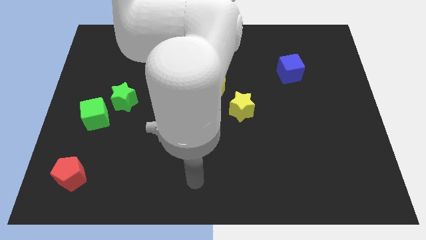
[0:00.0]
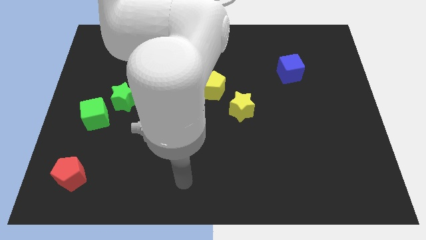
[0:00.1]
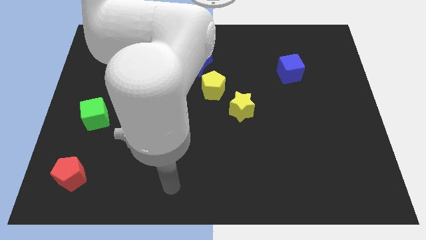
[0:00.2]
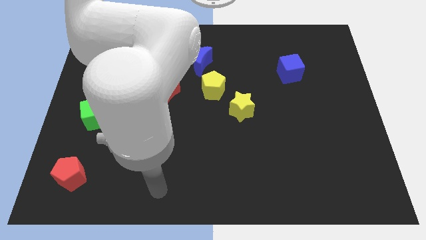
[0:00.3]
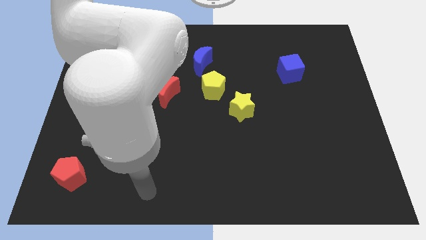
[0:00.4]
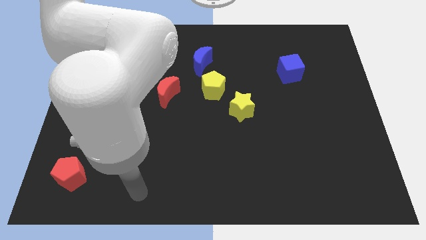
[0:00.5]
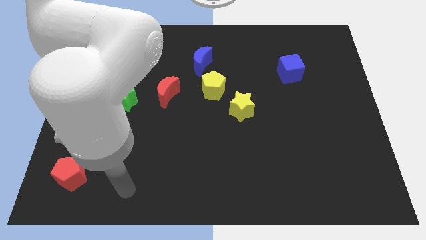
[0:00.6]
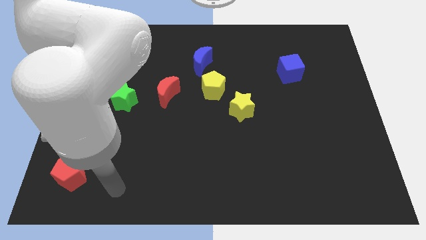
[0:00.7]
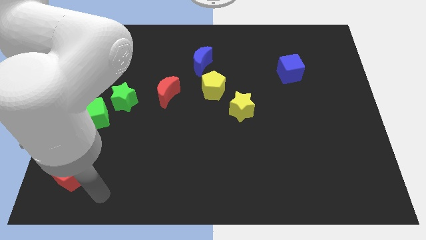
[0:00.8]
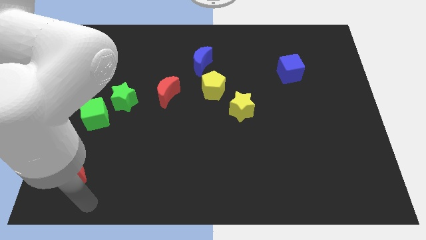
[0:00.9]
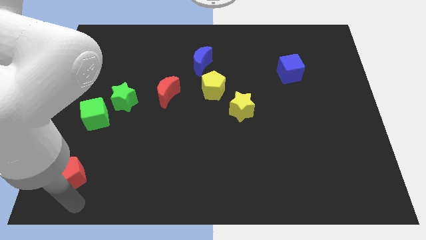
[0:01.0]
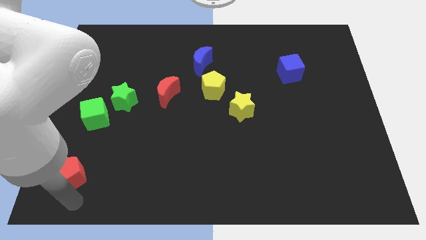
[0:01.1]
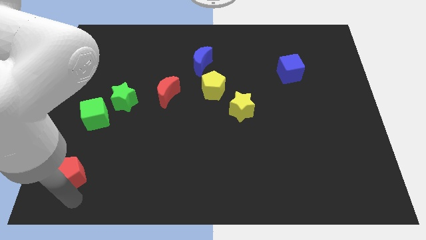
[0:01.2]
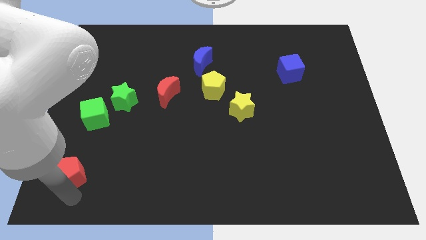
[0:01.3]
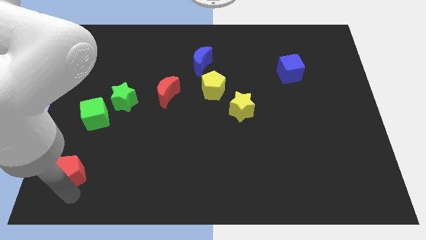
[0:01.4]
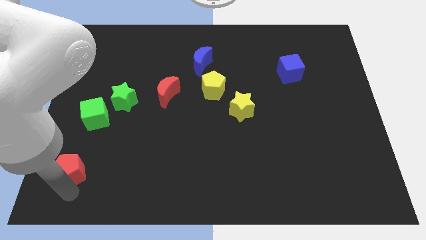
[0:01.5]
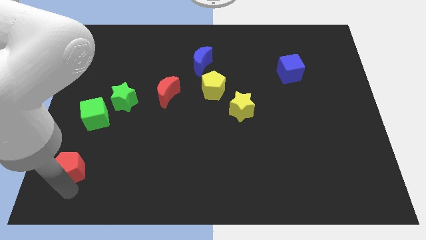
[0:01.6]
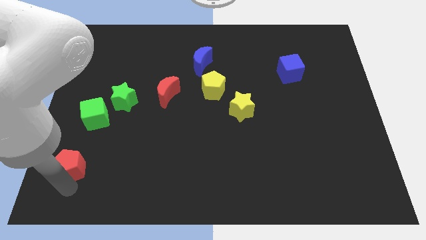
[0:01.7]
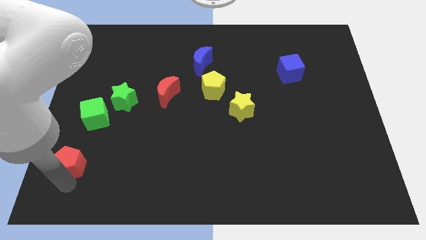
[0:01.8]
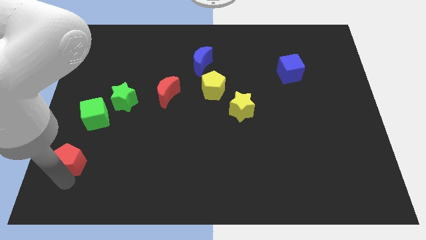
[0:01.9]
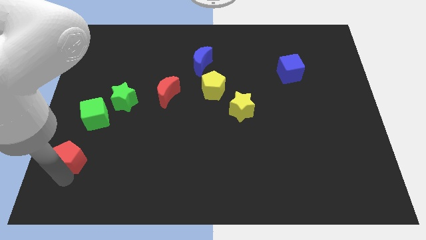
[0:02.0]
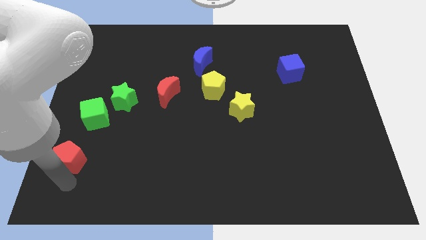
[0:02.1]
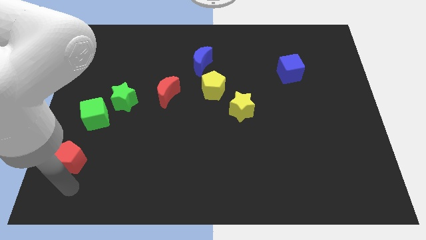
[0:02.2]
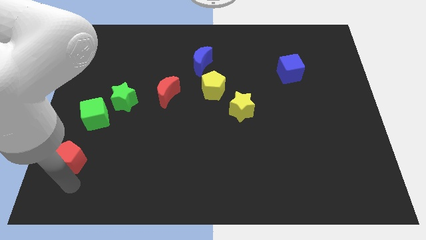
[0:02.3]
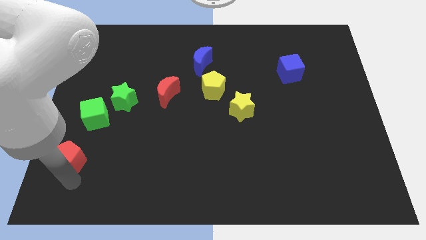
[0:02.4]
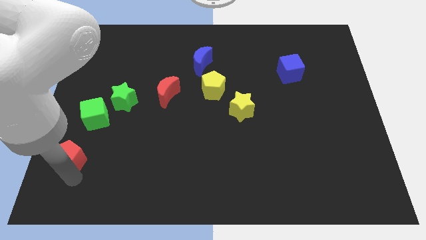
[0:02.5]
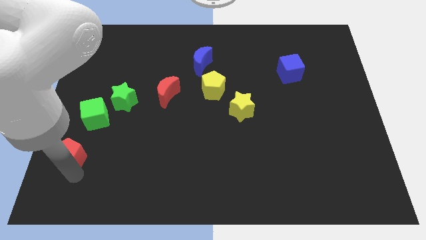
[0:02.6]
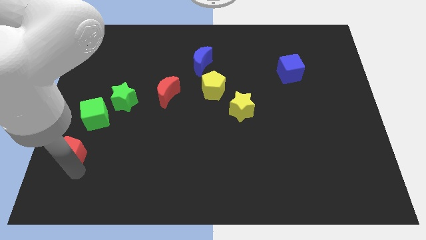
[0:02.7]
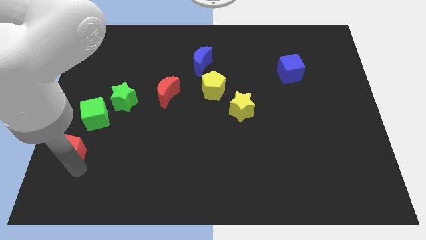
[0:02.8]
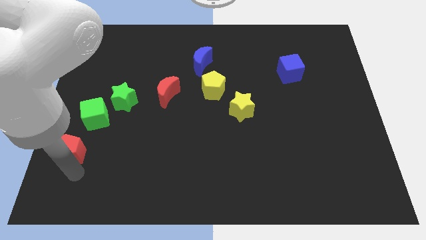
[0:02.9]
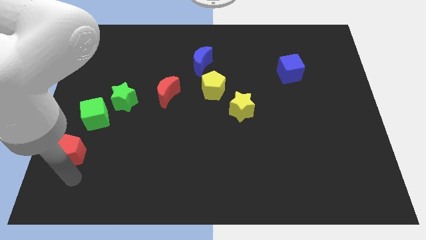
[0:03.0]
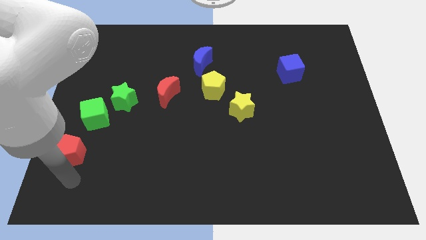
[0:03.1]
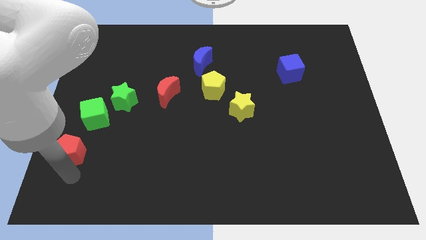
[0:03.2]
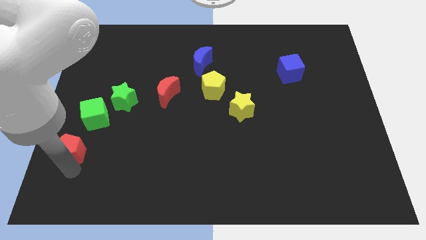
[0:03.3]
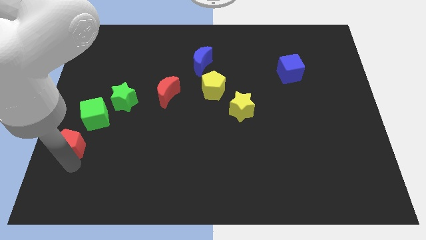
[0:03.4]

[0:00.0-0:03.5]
slightly move the red pentagon up

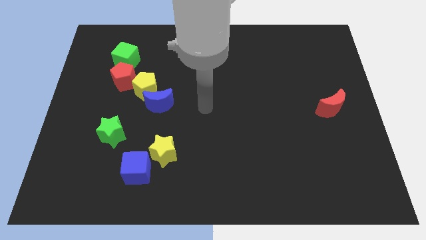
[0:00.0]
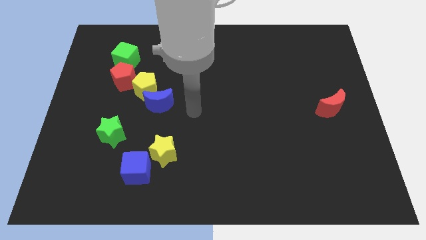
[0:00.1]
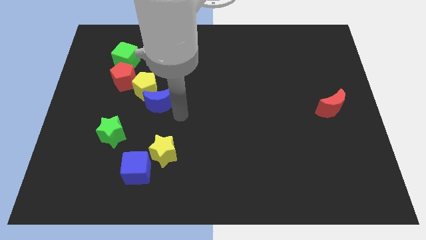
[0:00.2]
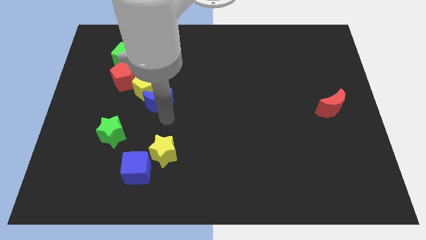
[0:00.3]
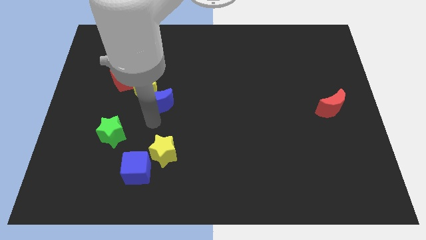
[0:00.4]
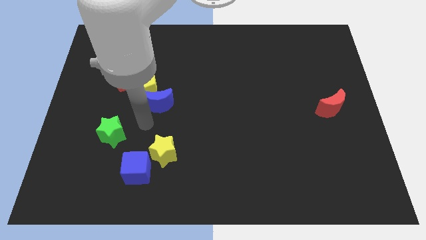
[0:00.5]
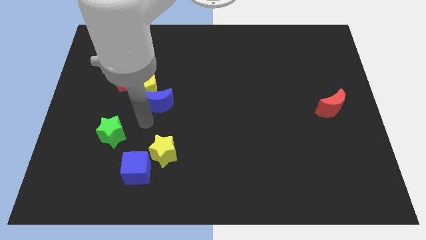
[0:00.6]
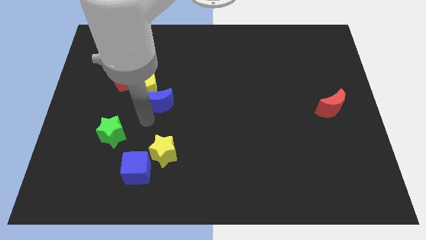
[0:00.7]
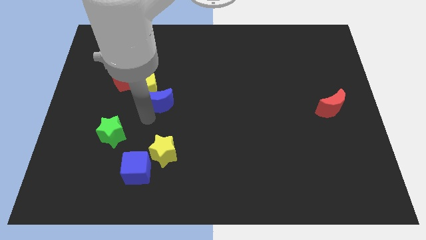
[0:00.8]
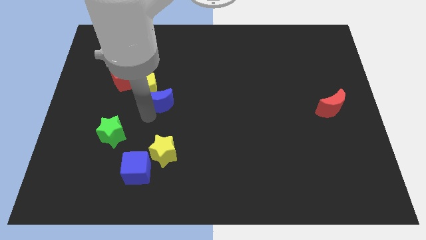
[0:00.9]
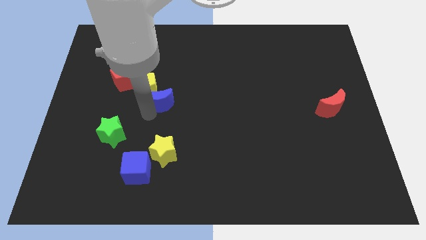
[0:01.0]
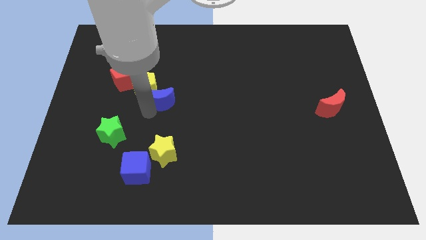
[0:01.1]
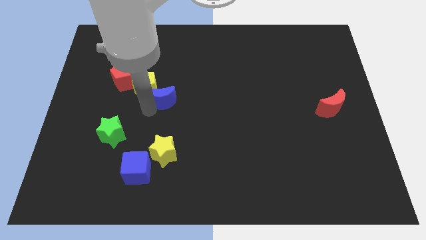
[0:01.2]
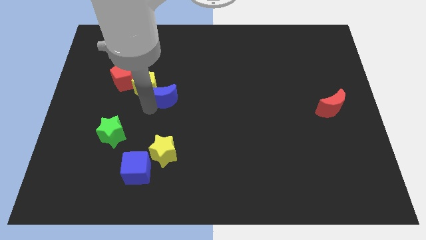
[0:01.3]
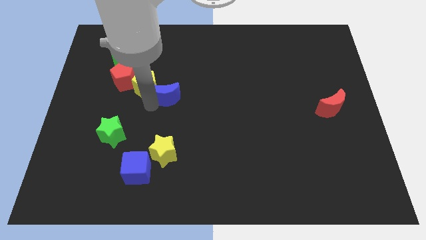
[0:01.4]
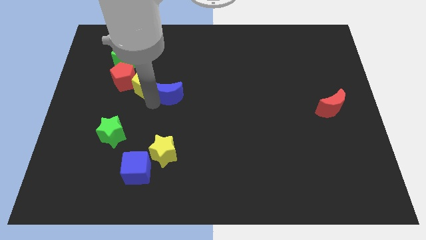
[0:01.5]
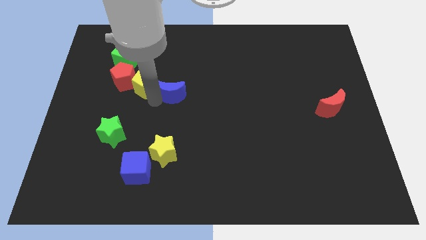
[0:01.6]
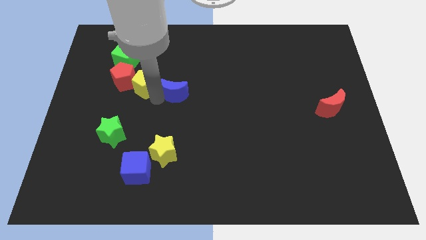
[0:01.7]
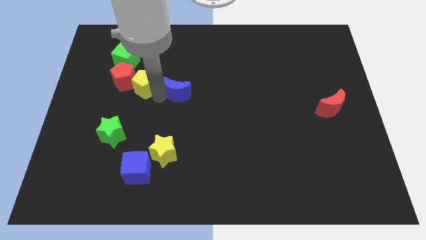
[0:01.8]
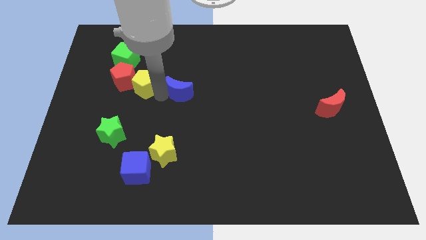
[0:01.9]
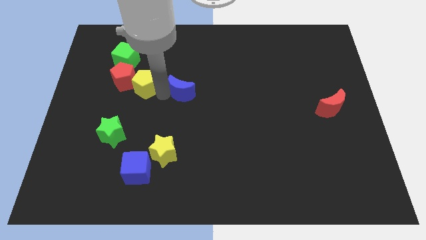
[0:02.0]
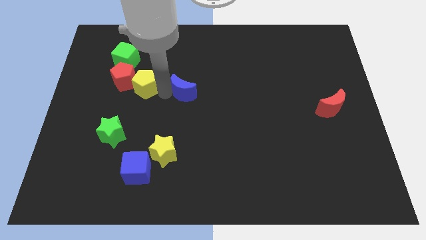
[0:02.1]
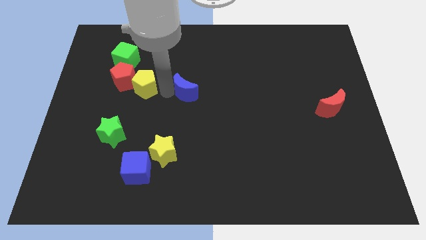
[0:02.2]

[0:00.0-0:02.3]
push the blue moon up and right a bit

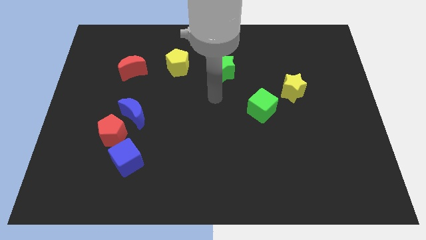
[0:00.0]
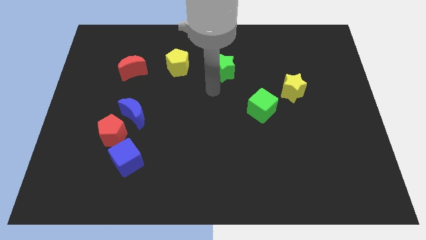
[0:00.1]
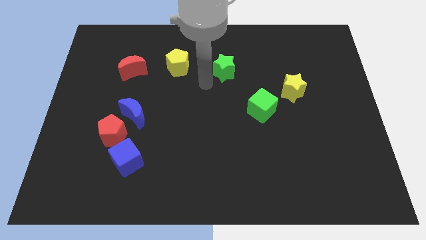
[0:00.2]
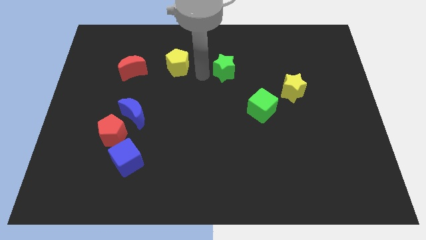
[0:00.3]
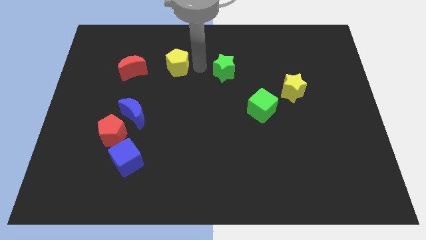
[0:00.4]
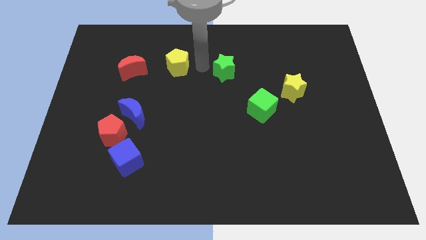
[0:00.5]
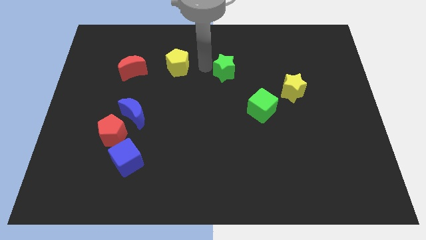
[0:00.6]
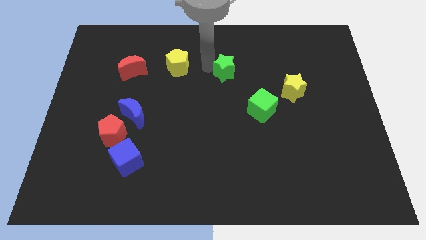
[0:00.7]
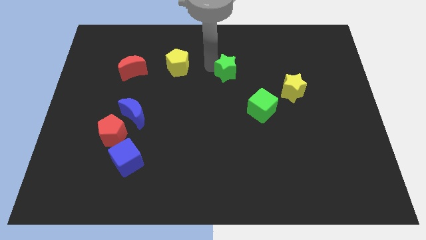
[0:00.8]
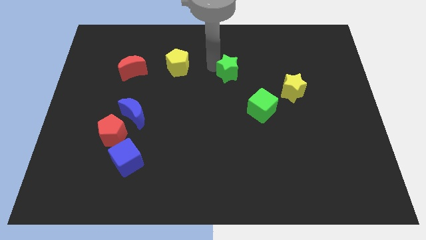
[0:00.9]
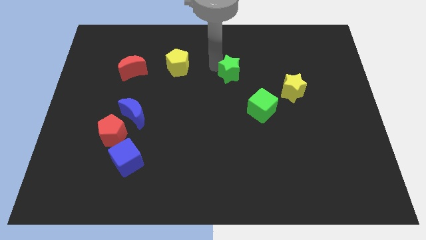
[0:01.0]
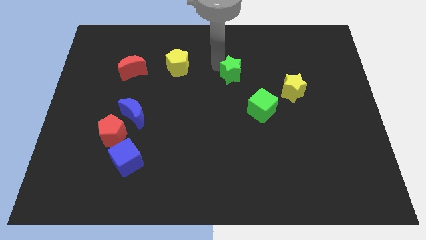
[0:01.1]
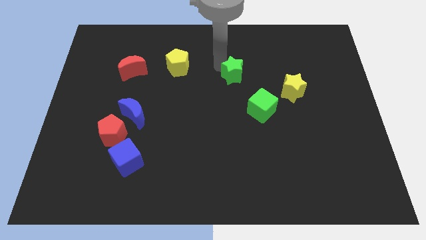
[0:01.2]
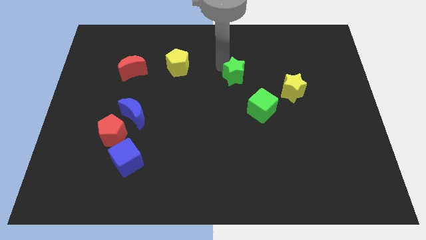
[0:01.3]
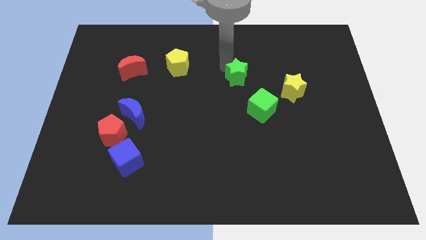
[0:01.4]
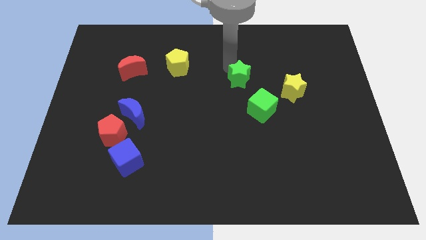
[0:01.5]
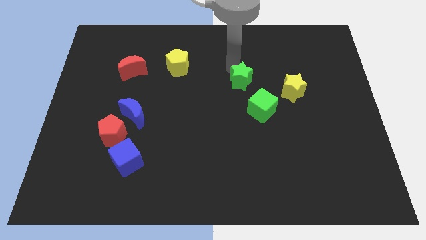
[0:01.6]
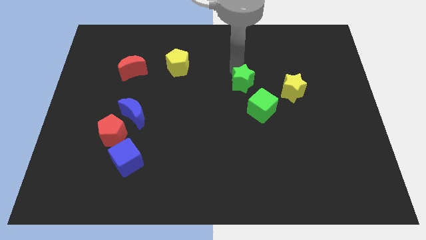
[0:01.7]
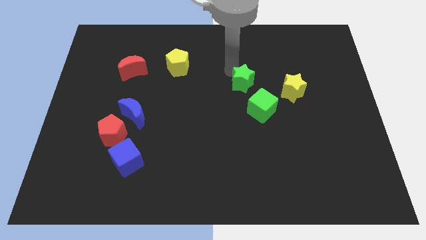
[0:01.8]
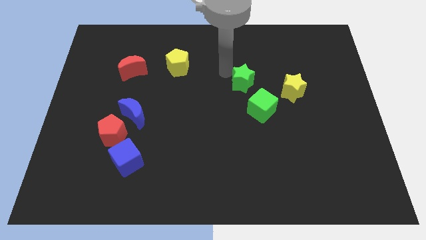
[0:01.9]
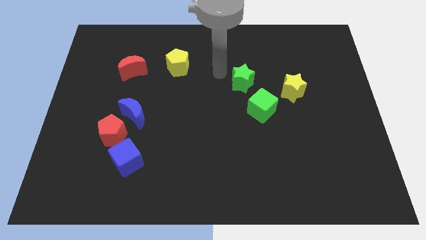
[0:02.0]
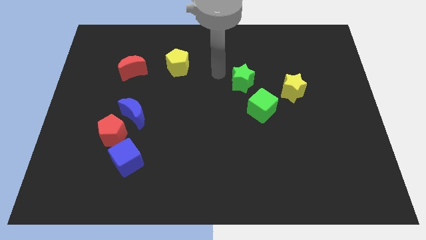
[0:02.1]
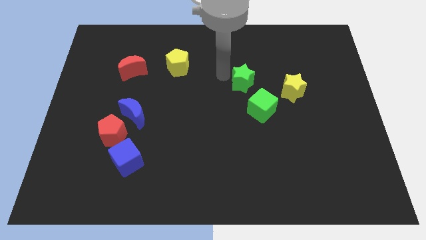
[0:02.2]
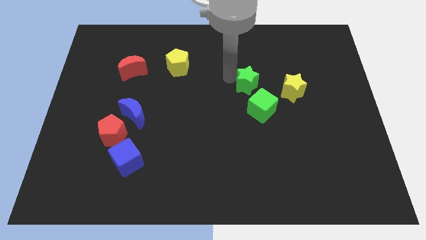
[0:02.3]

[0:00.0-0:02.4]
slightly slide the green star down and right
